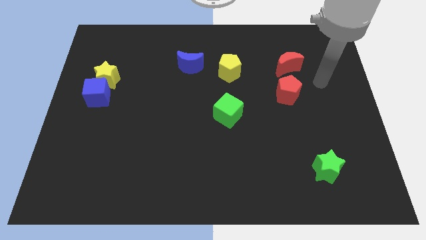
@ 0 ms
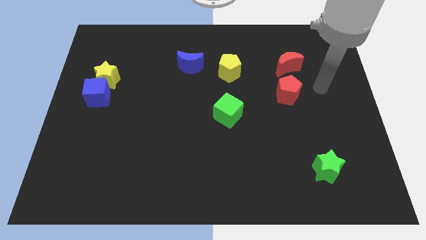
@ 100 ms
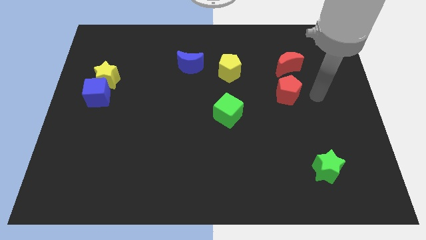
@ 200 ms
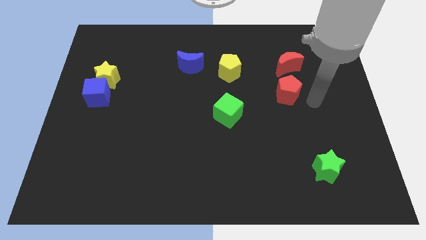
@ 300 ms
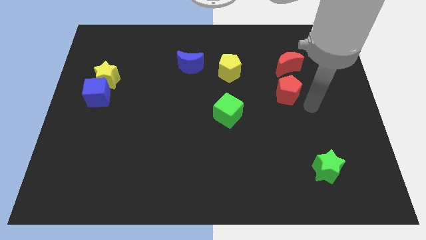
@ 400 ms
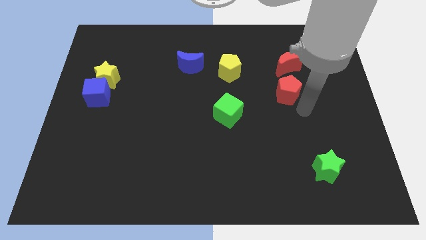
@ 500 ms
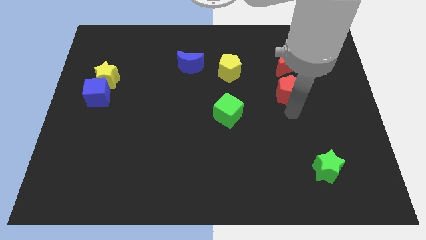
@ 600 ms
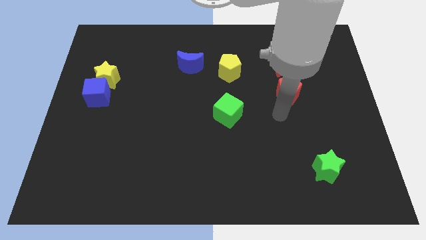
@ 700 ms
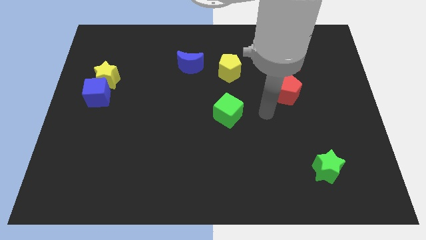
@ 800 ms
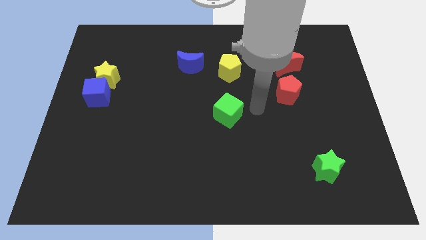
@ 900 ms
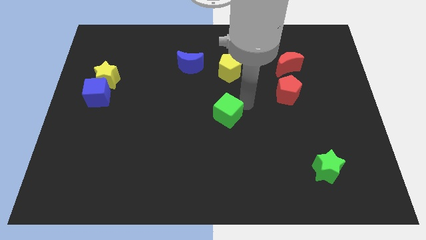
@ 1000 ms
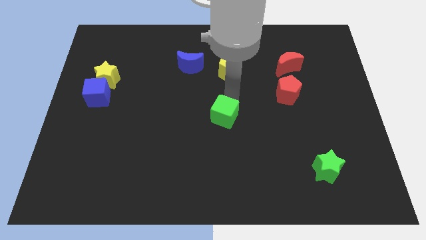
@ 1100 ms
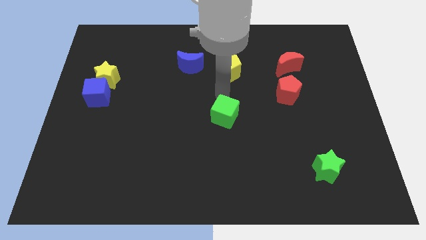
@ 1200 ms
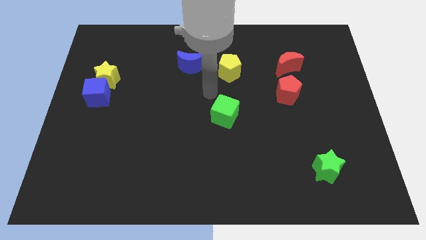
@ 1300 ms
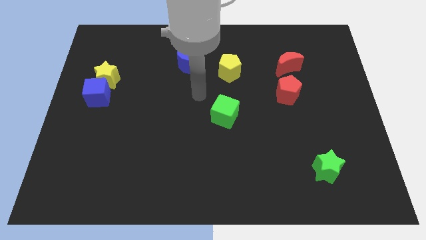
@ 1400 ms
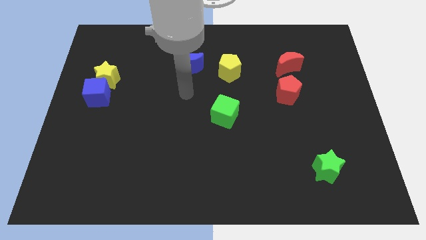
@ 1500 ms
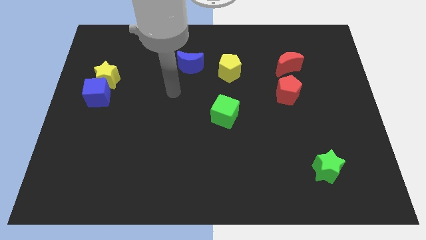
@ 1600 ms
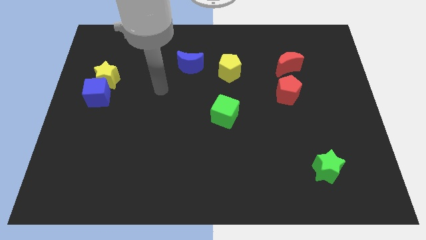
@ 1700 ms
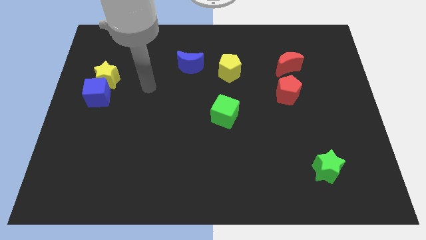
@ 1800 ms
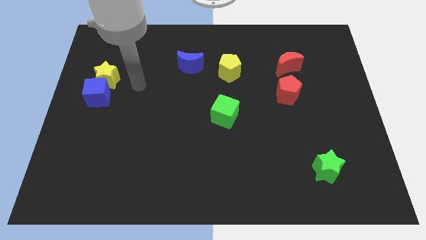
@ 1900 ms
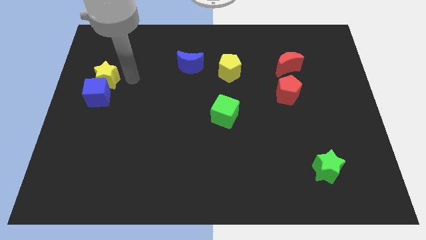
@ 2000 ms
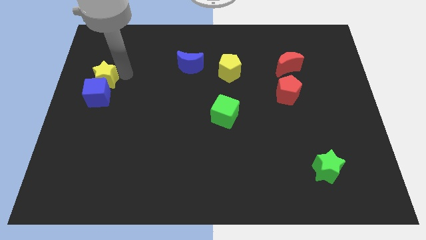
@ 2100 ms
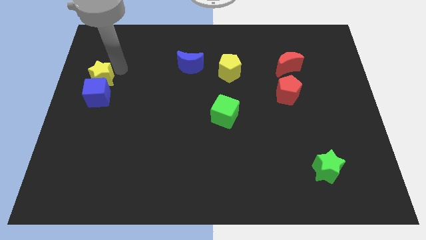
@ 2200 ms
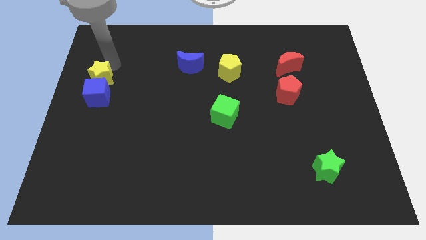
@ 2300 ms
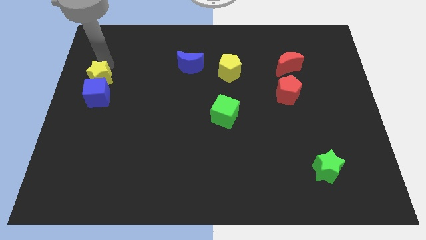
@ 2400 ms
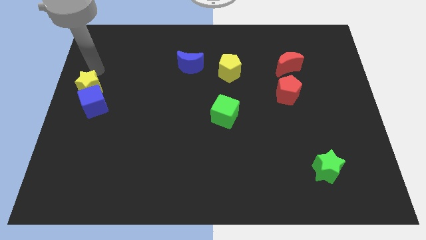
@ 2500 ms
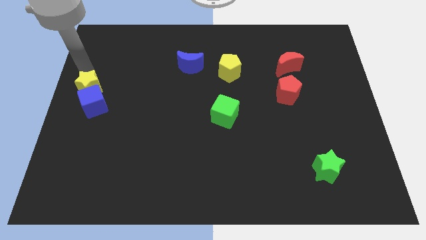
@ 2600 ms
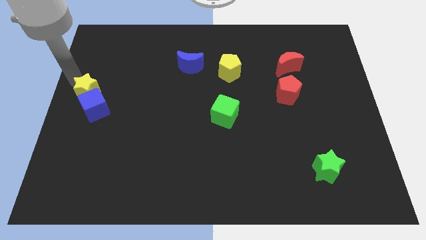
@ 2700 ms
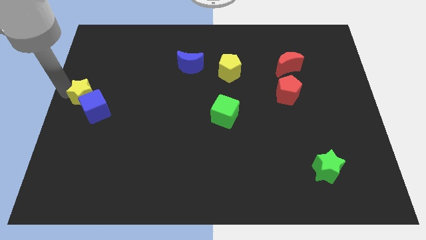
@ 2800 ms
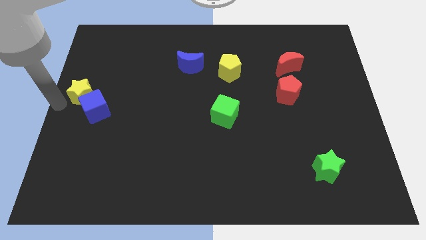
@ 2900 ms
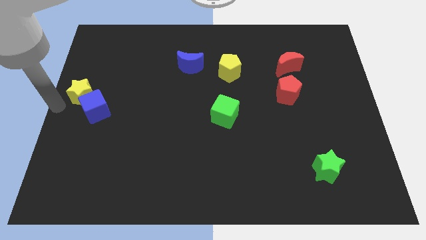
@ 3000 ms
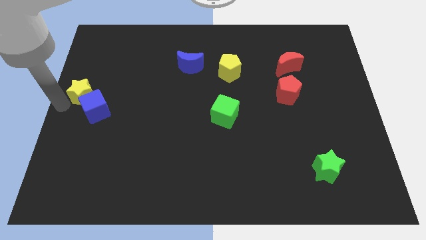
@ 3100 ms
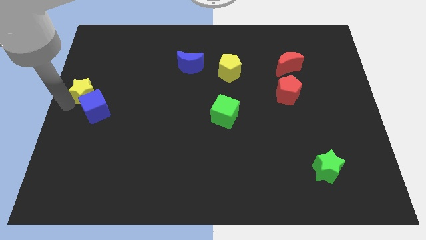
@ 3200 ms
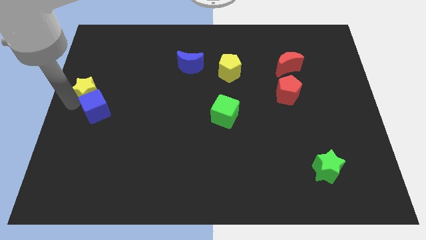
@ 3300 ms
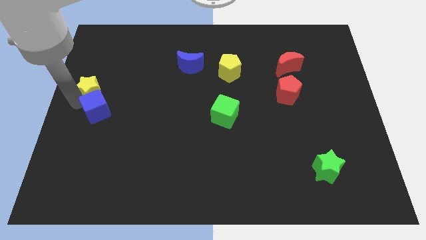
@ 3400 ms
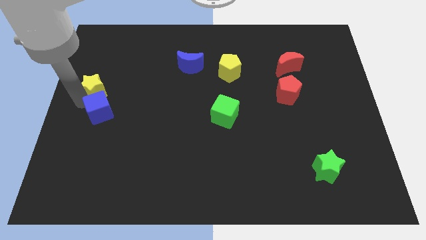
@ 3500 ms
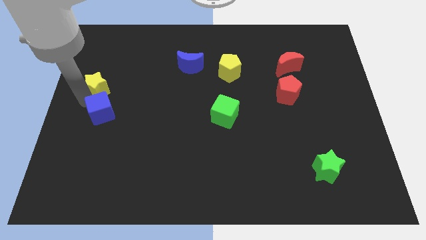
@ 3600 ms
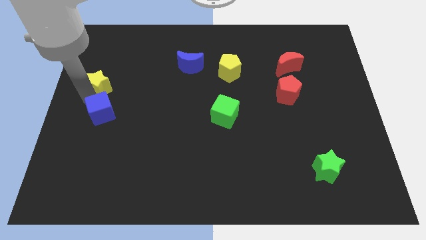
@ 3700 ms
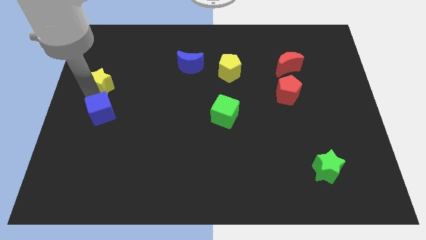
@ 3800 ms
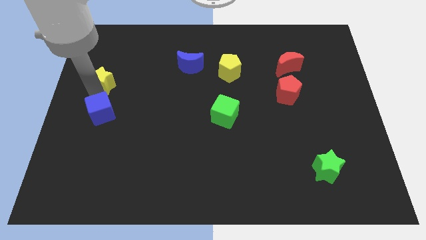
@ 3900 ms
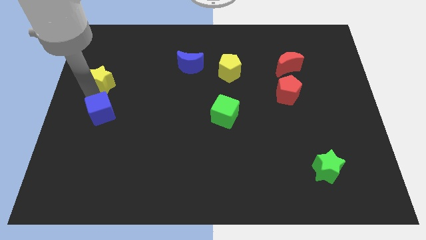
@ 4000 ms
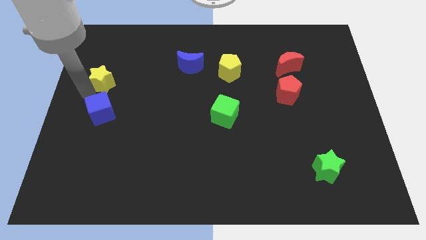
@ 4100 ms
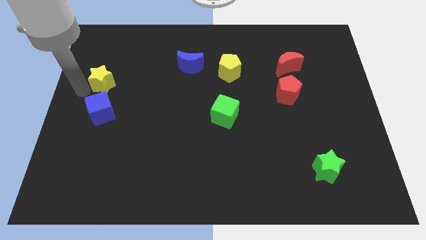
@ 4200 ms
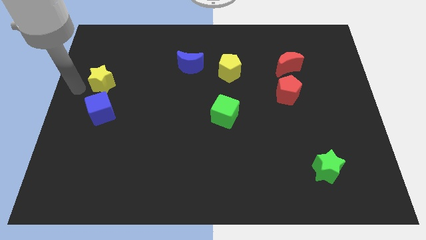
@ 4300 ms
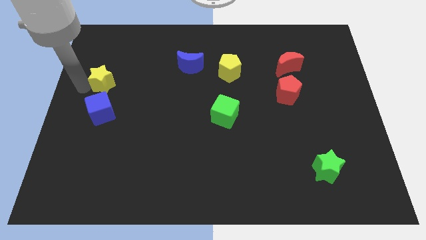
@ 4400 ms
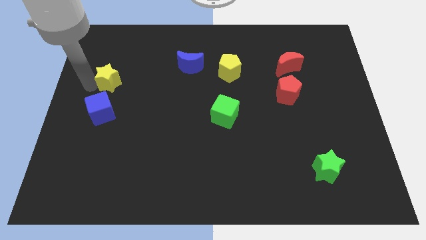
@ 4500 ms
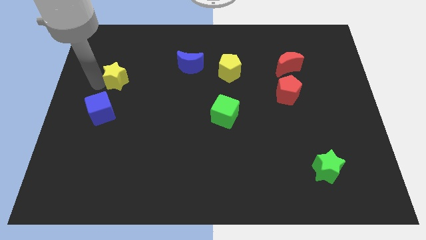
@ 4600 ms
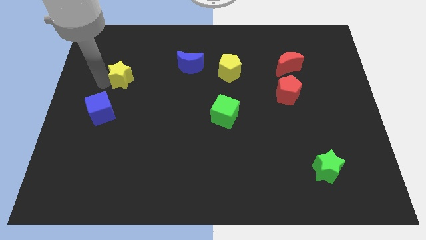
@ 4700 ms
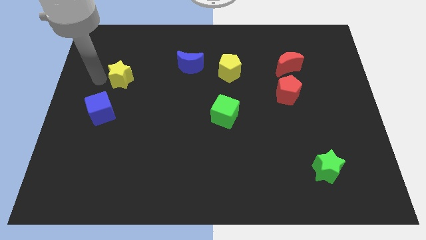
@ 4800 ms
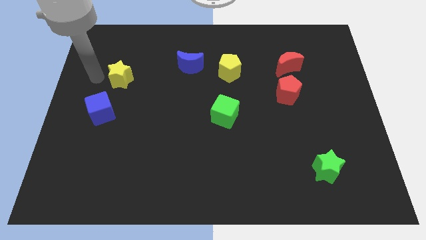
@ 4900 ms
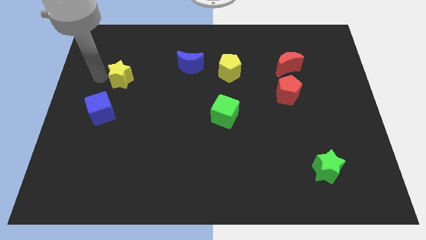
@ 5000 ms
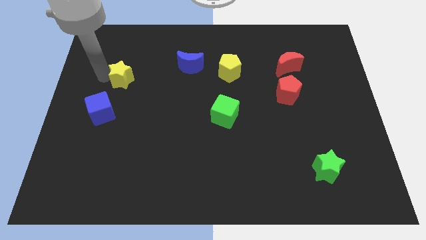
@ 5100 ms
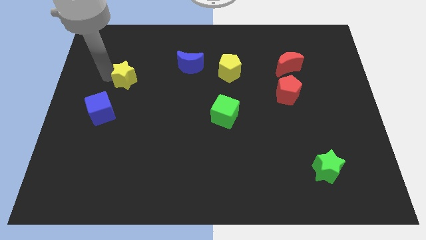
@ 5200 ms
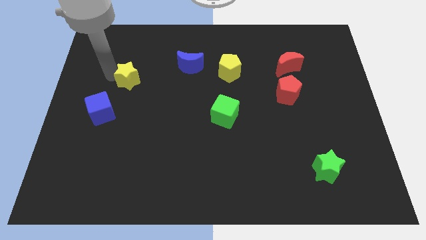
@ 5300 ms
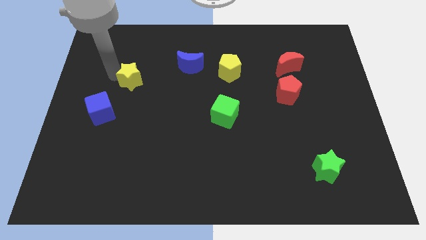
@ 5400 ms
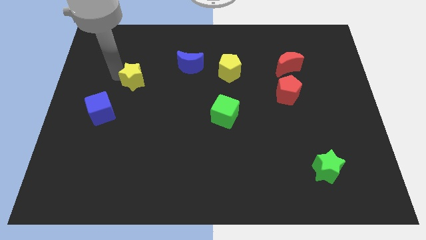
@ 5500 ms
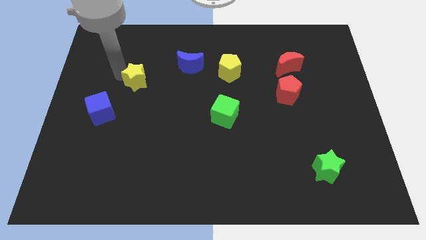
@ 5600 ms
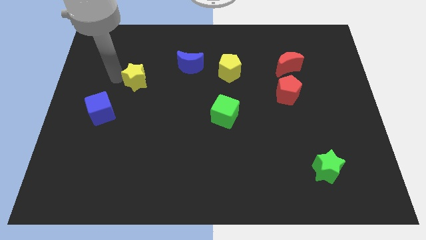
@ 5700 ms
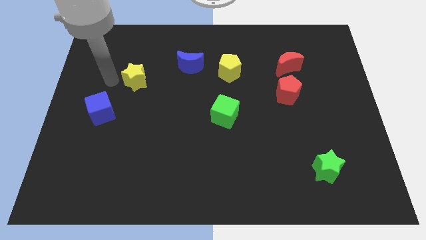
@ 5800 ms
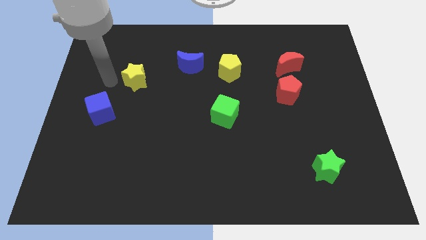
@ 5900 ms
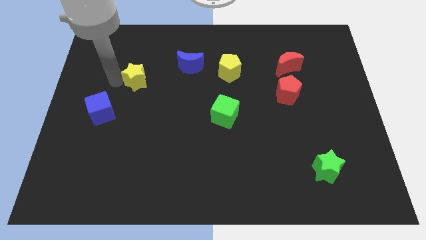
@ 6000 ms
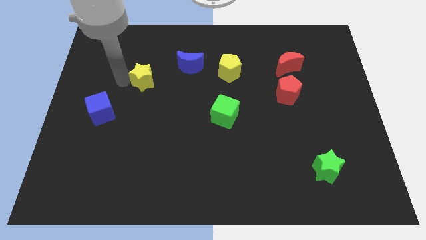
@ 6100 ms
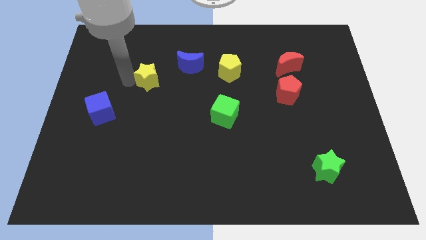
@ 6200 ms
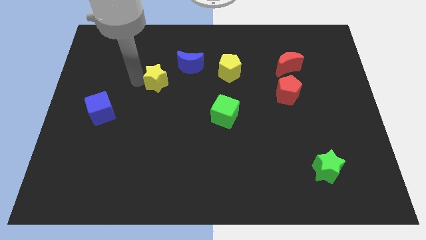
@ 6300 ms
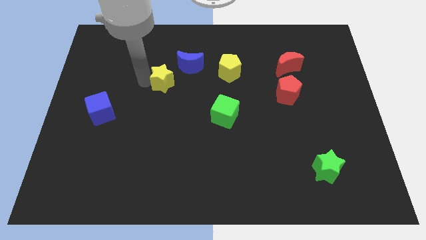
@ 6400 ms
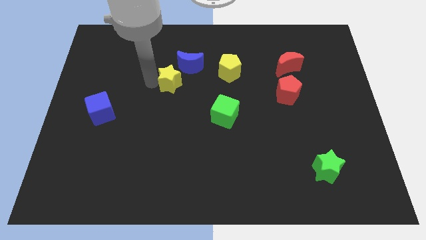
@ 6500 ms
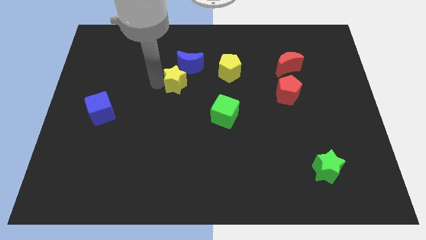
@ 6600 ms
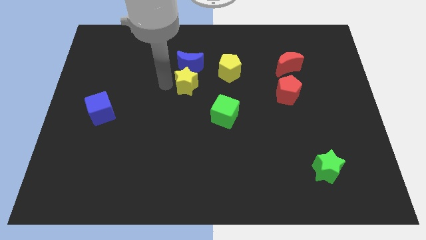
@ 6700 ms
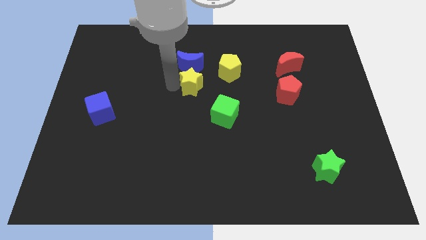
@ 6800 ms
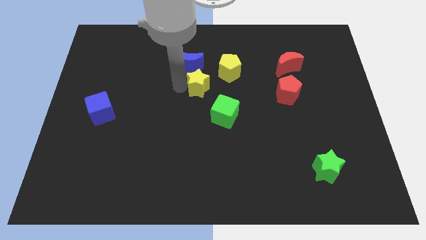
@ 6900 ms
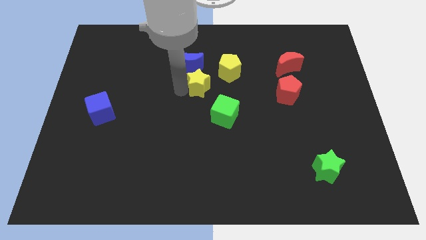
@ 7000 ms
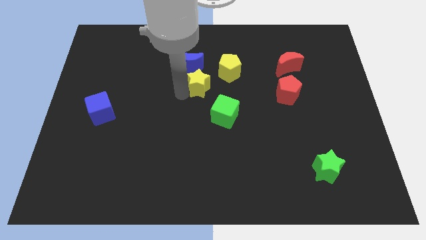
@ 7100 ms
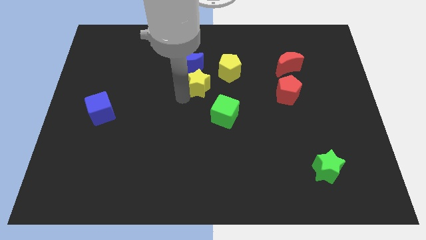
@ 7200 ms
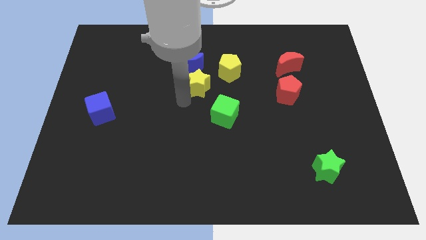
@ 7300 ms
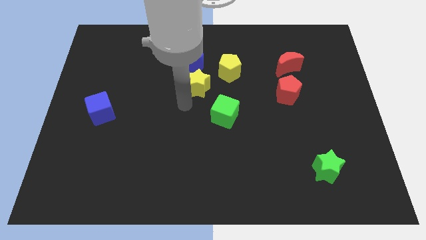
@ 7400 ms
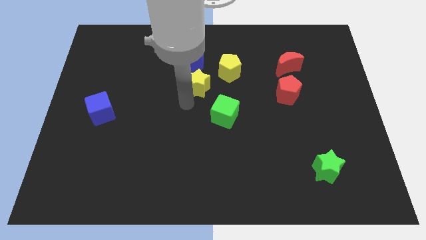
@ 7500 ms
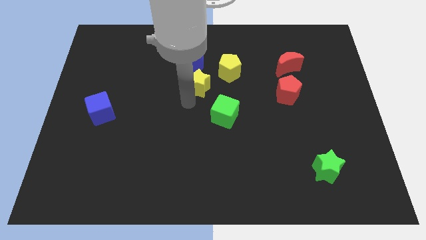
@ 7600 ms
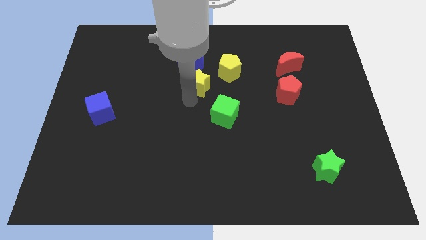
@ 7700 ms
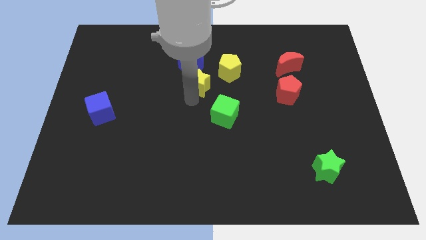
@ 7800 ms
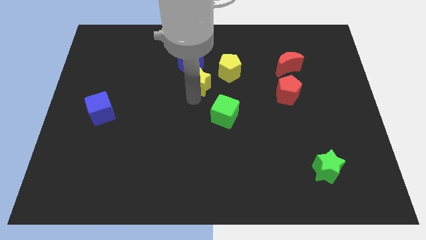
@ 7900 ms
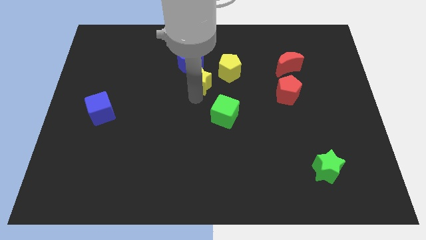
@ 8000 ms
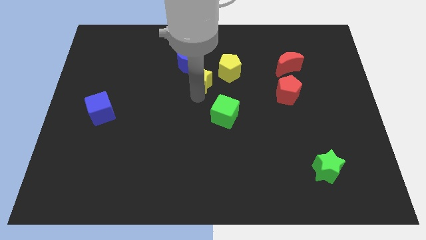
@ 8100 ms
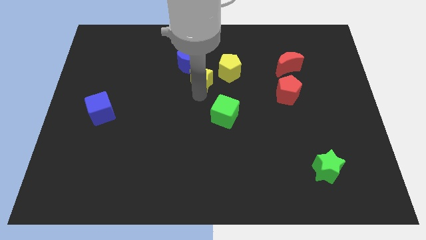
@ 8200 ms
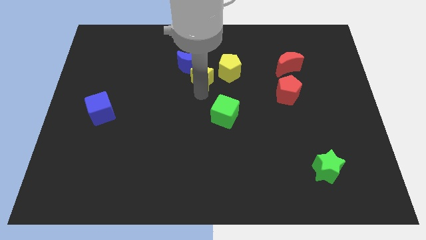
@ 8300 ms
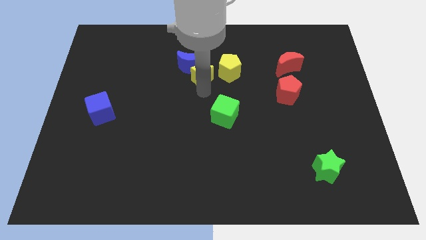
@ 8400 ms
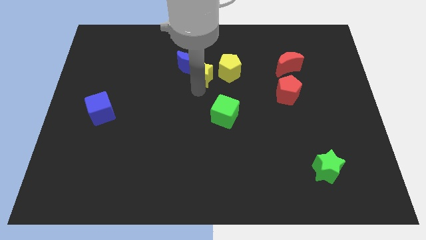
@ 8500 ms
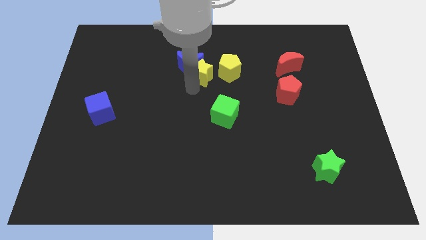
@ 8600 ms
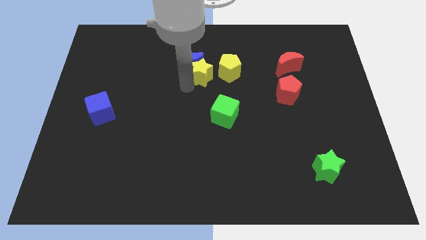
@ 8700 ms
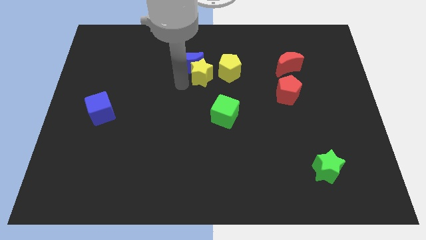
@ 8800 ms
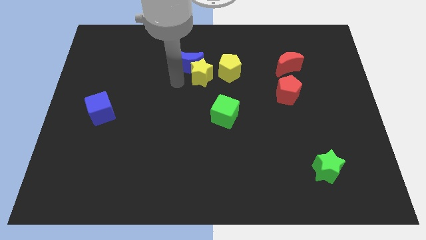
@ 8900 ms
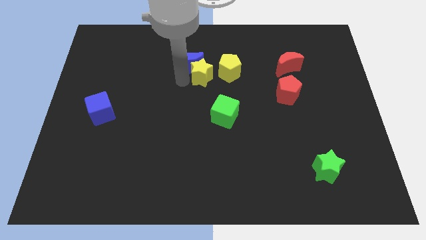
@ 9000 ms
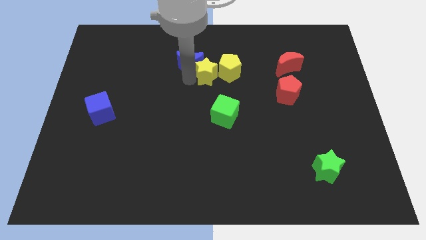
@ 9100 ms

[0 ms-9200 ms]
push the yellow star towards the yellow pentagon
